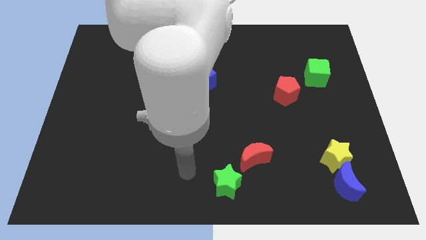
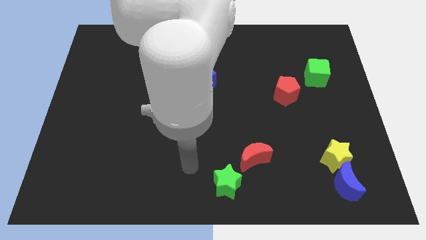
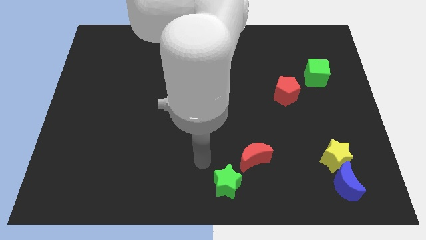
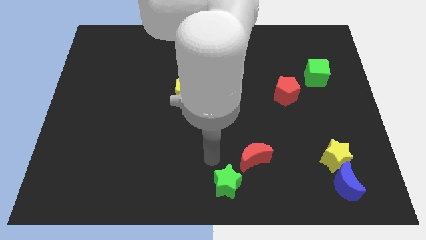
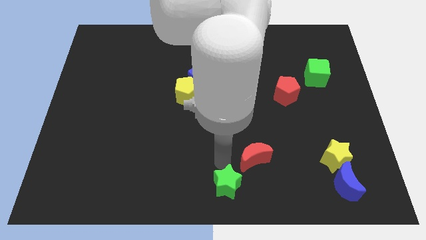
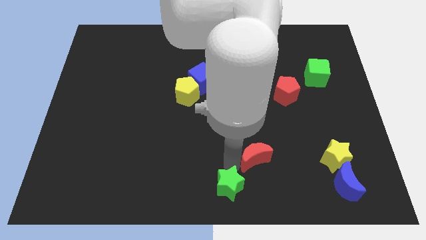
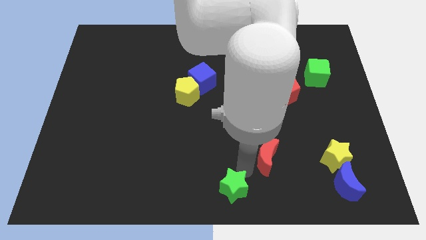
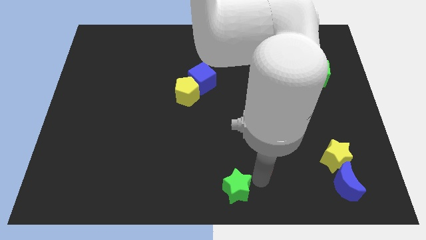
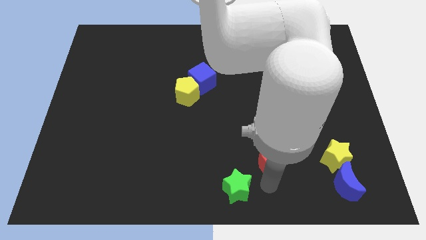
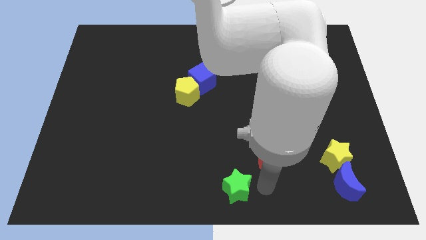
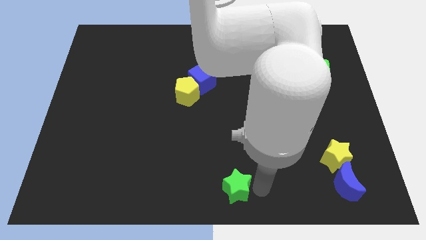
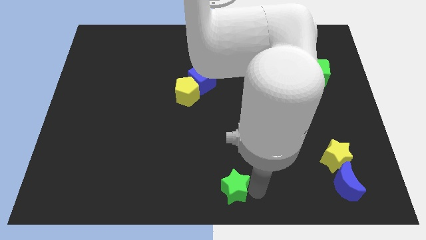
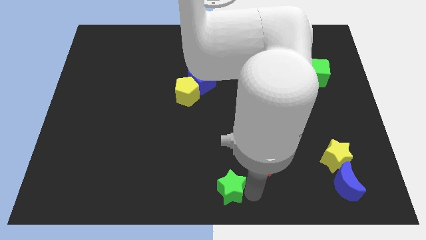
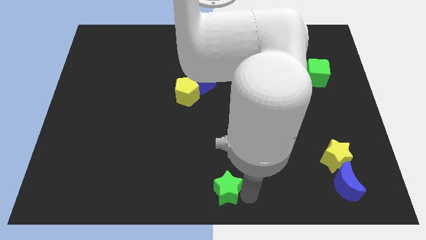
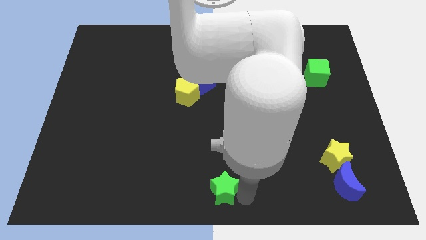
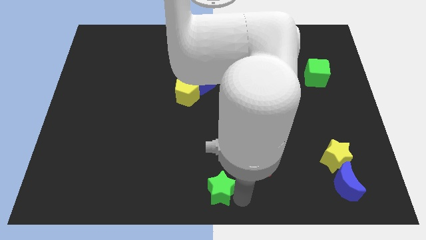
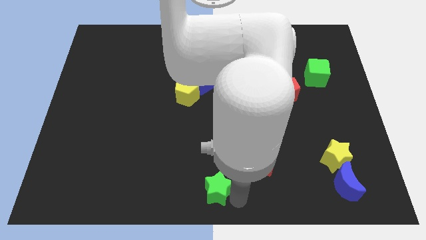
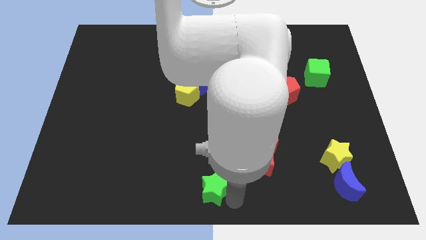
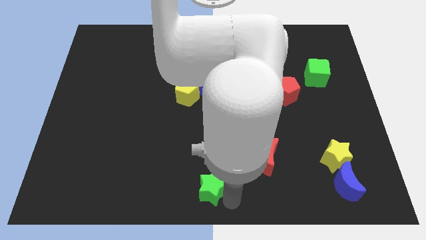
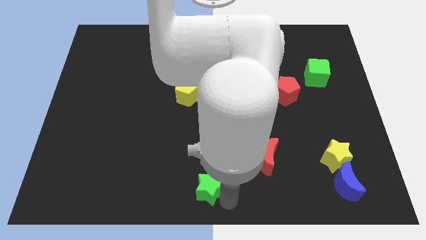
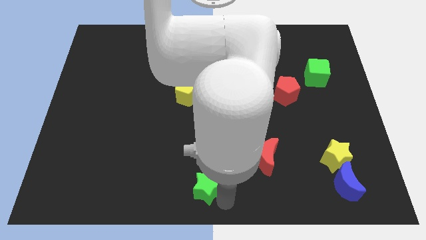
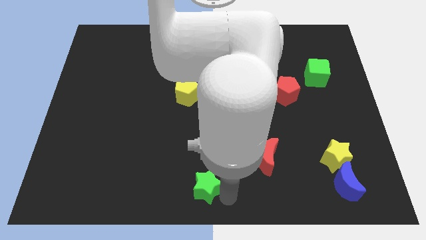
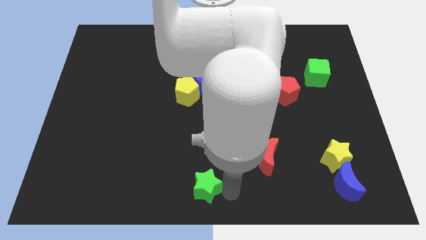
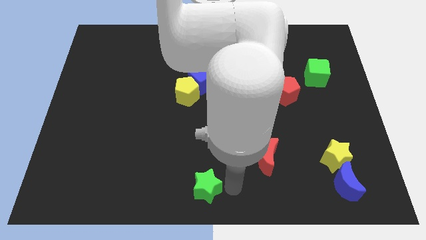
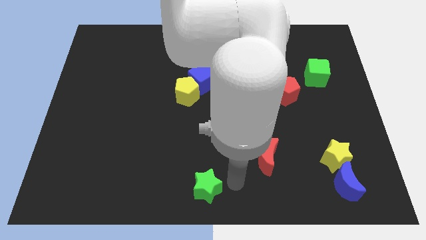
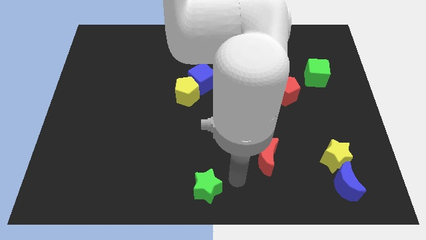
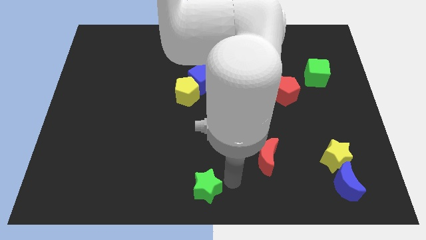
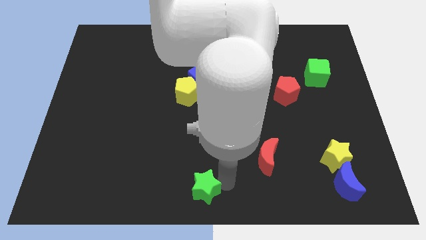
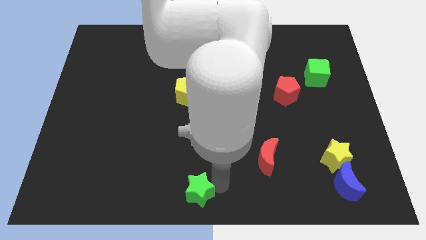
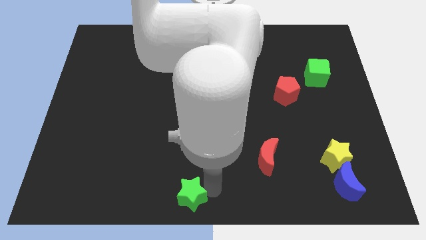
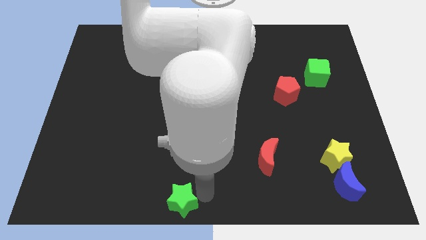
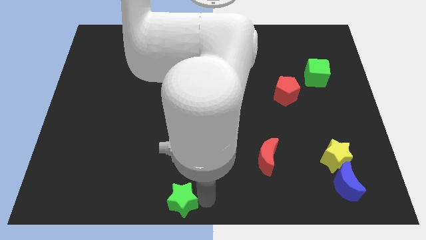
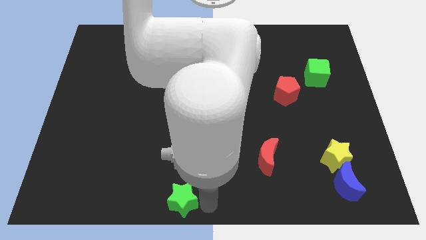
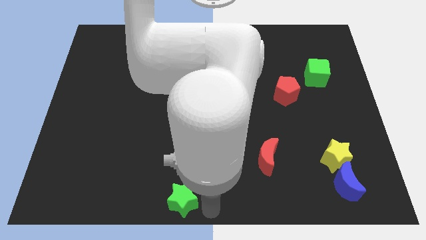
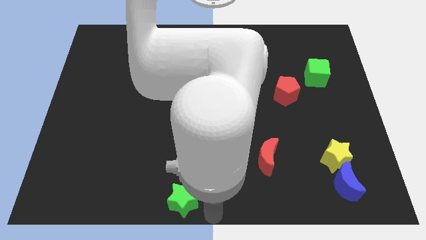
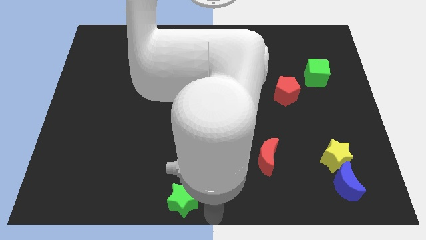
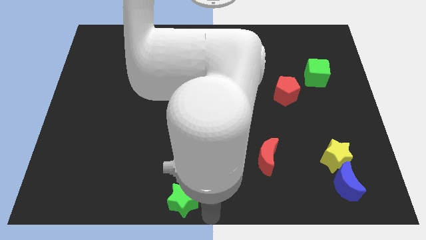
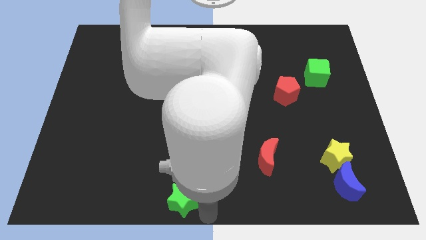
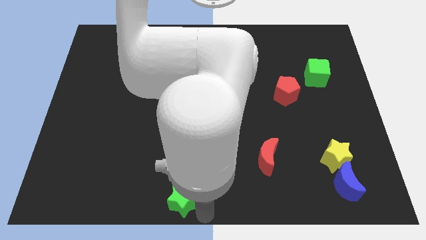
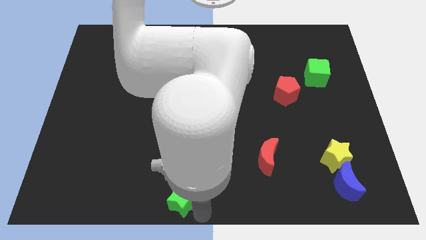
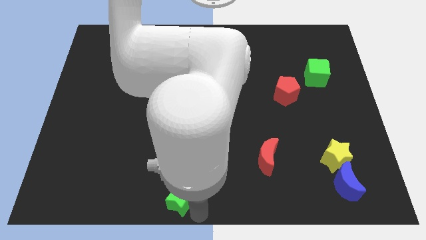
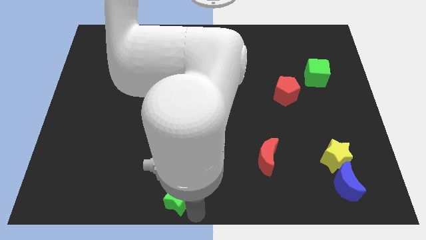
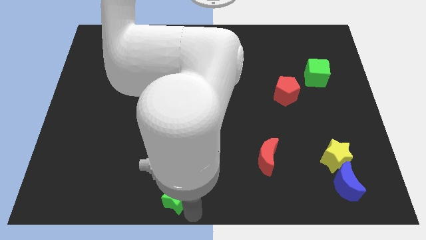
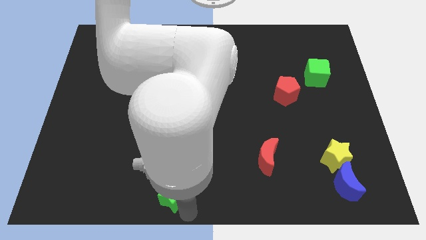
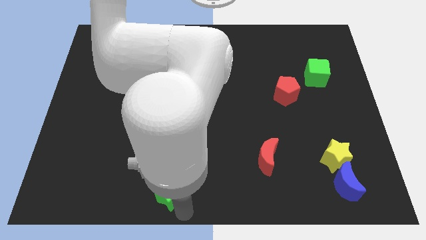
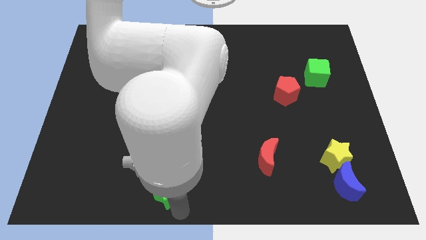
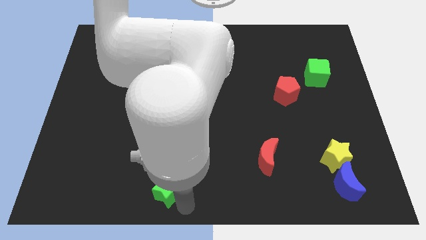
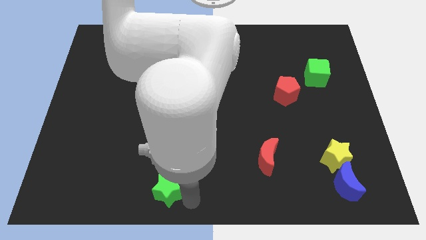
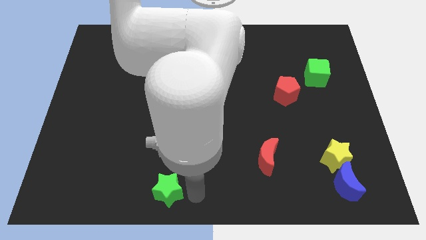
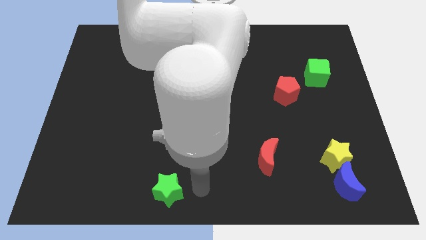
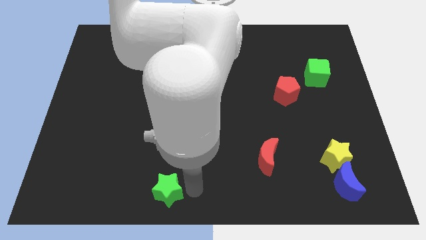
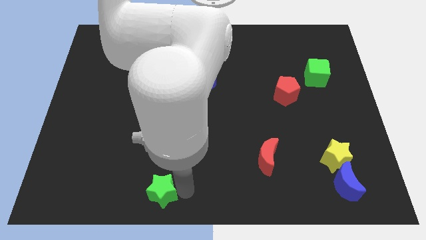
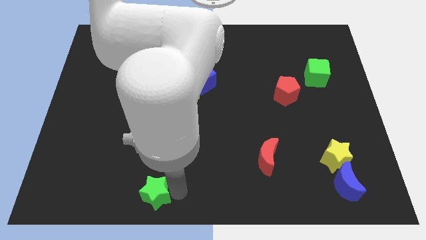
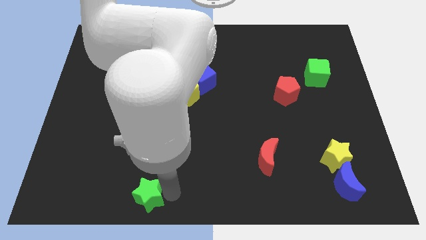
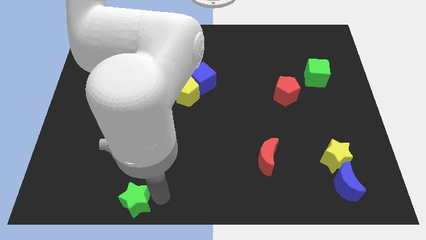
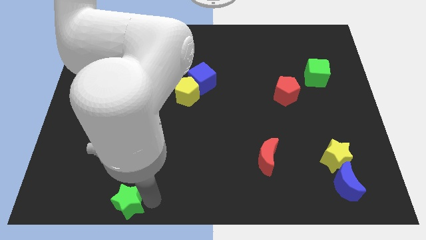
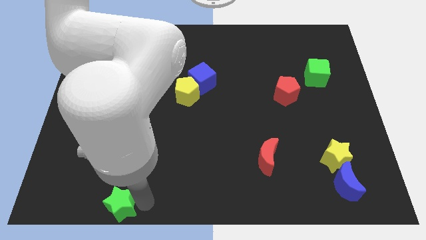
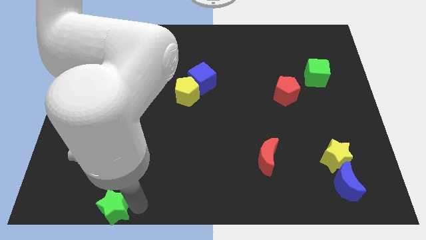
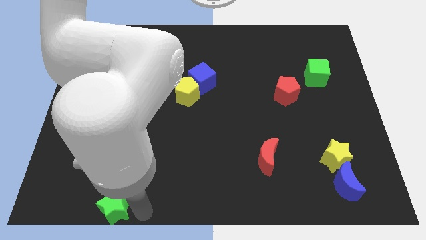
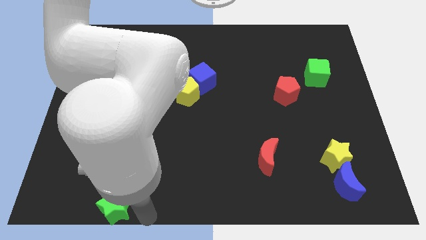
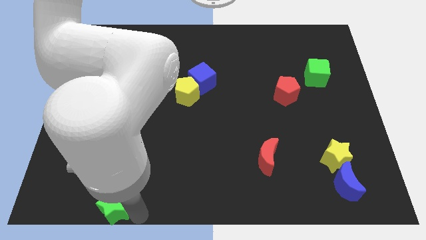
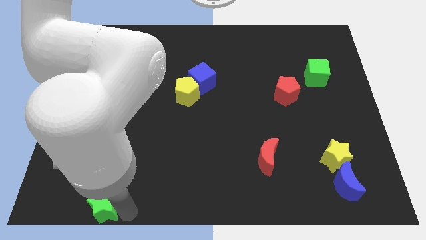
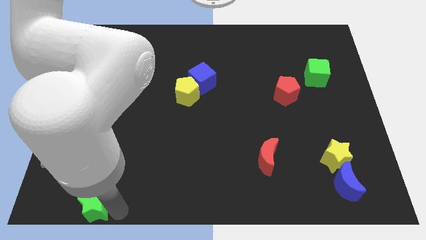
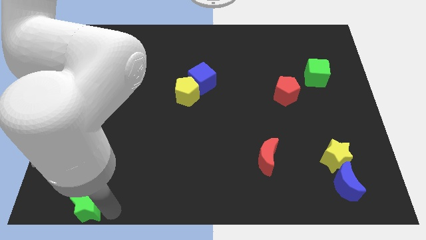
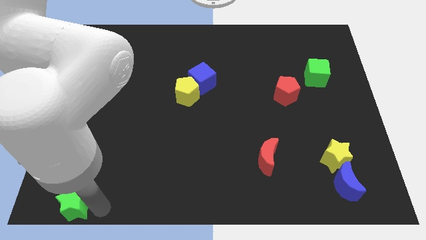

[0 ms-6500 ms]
push the green star to the bottom left
